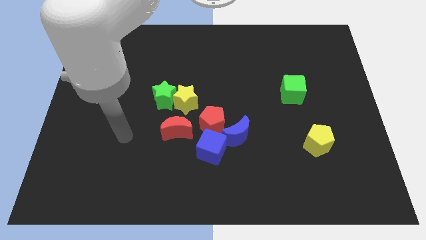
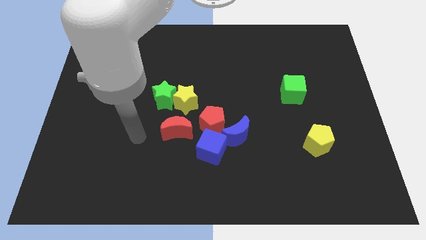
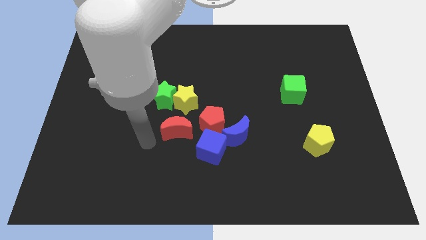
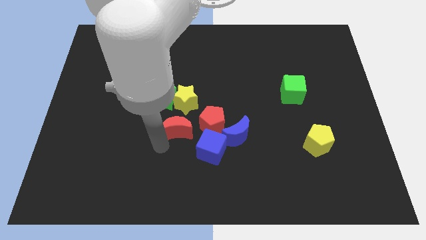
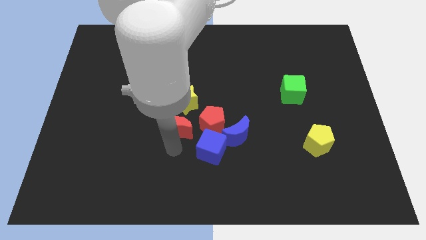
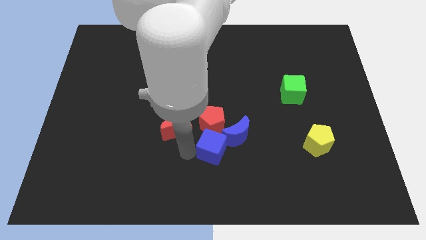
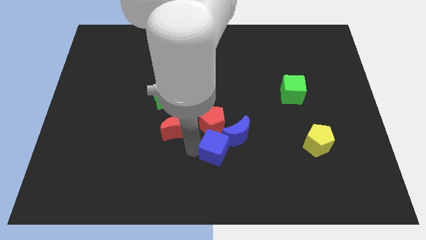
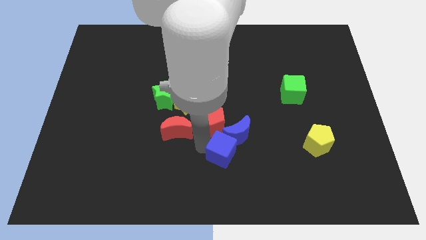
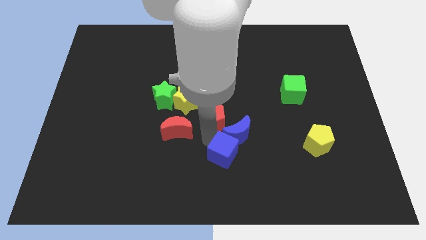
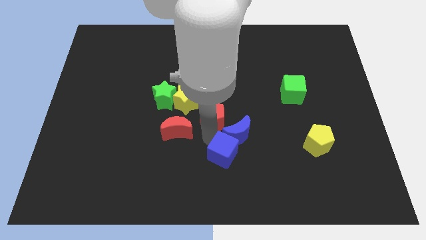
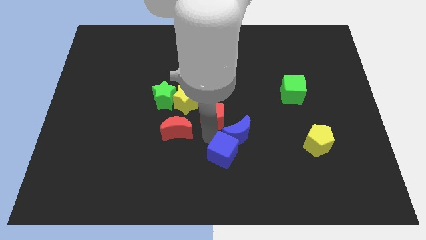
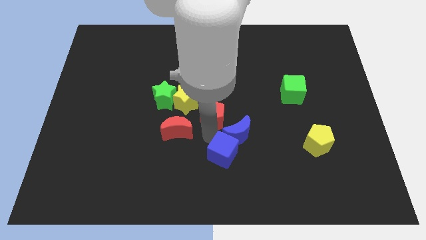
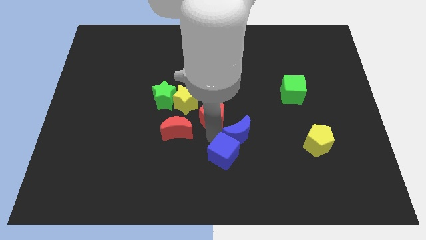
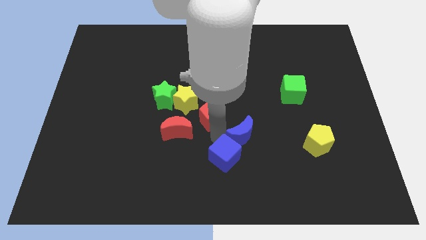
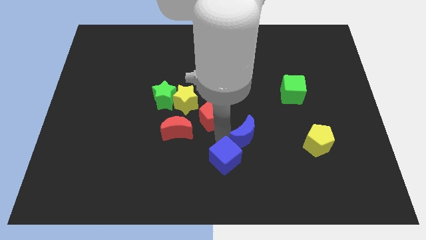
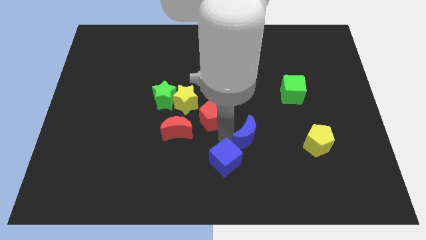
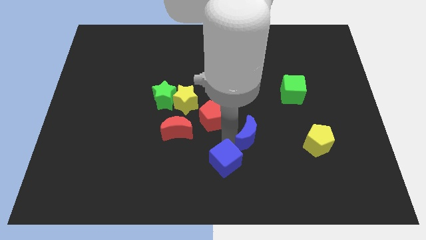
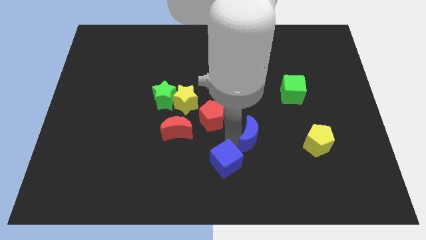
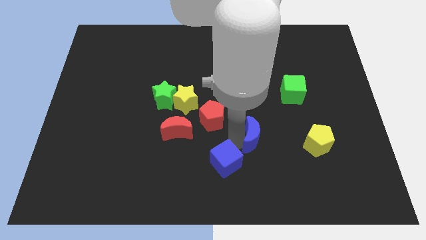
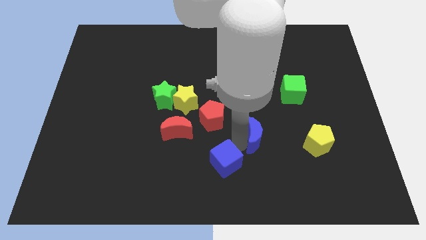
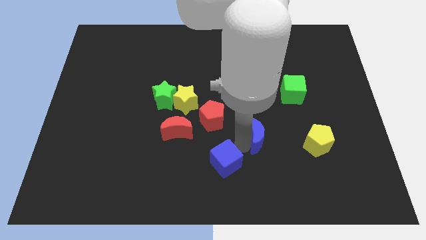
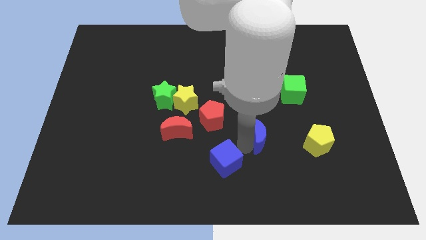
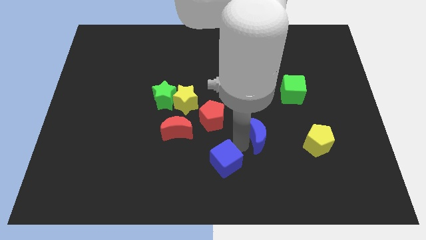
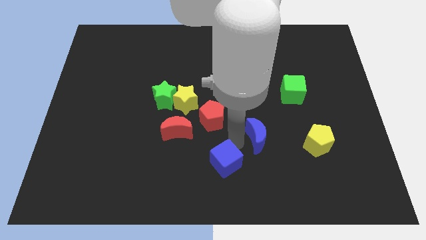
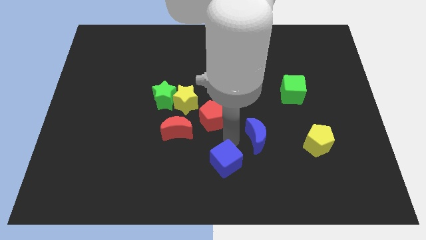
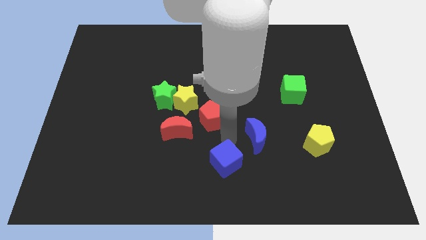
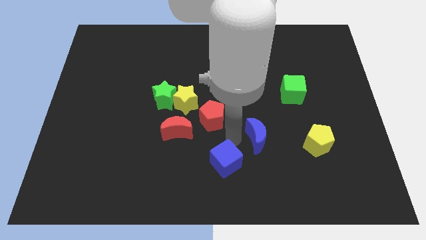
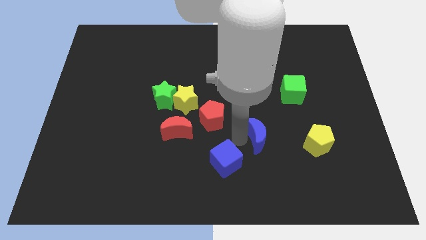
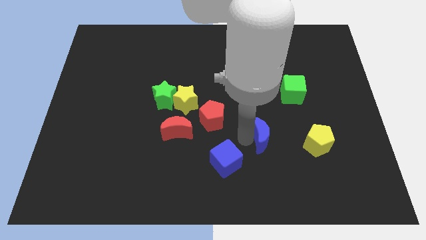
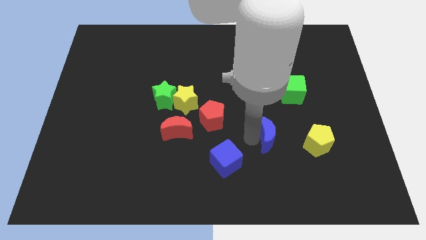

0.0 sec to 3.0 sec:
pull the blue moon apart from the red pentagon and blue cube

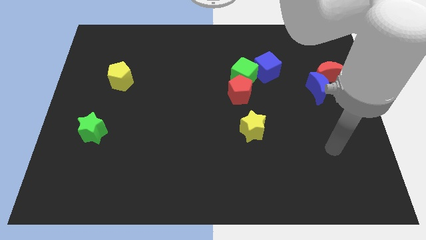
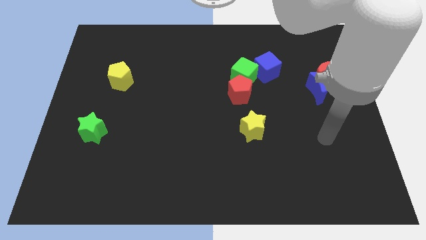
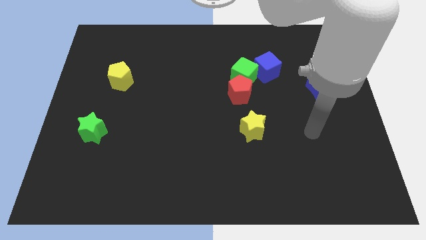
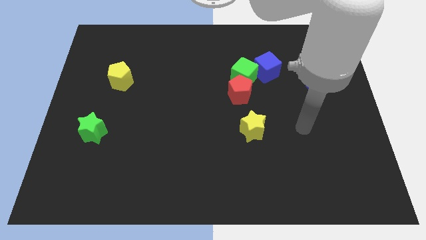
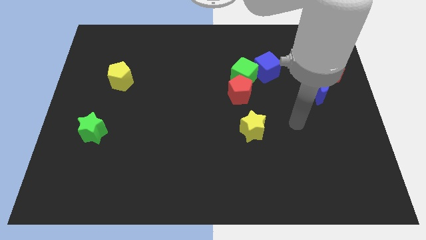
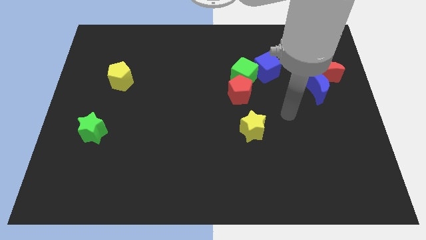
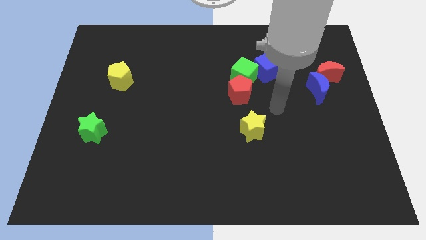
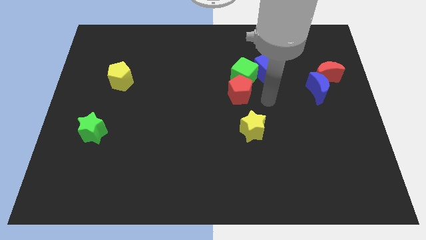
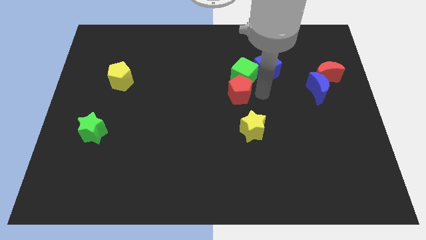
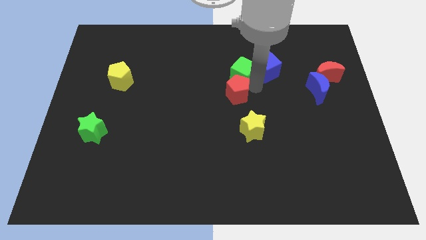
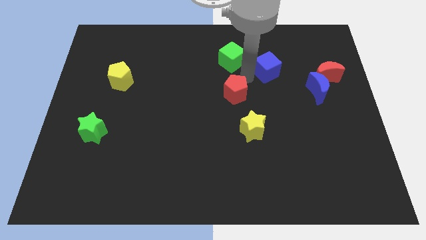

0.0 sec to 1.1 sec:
separate the red pentagon from the green cube

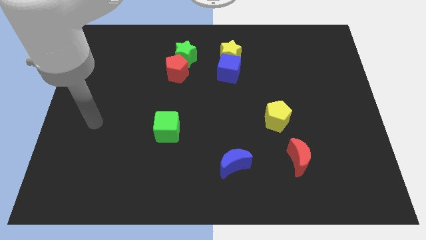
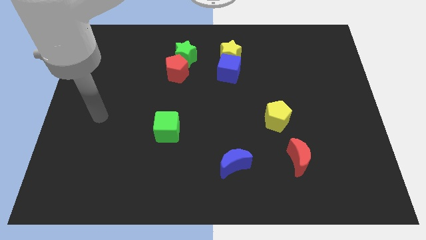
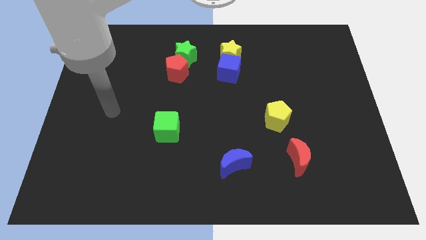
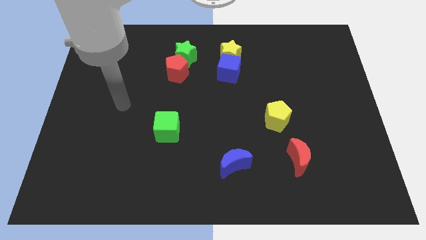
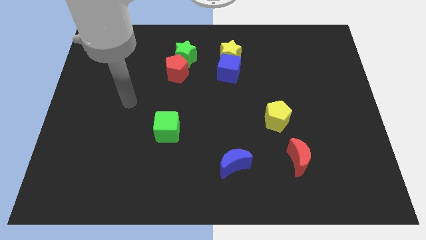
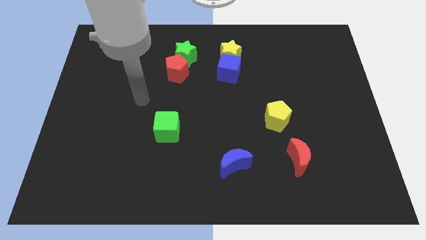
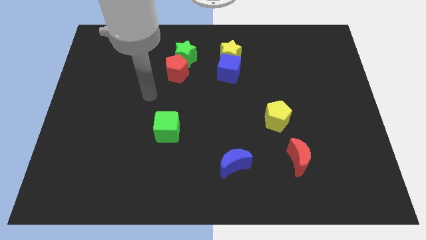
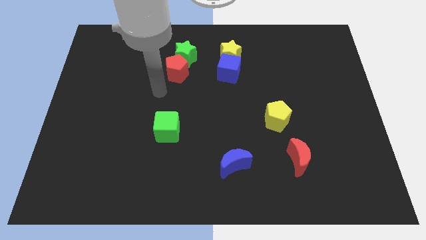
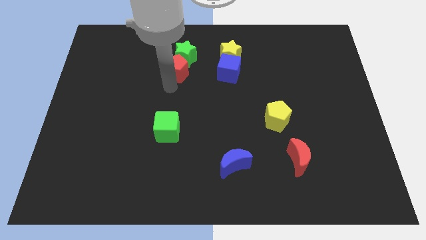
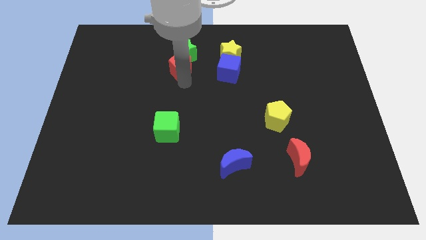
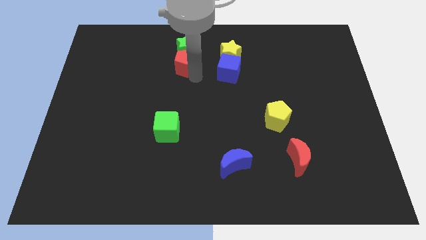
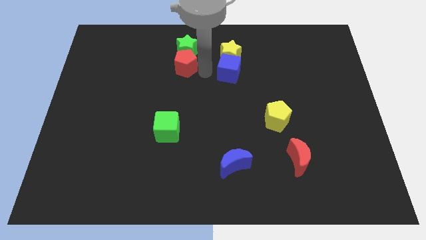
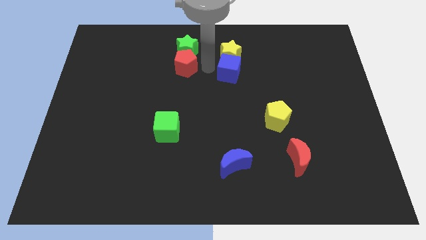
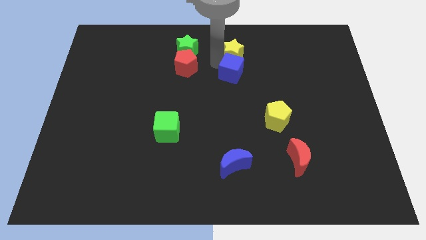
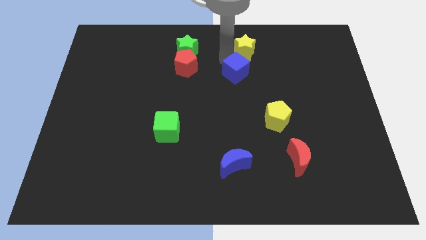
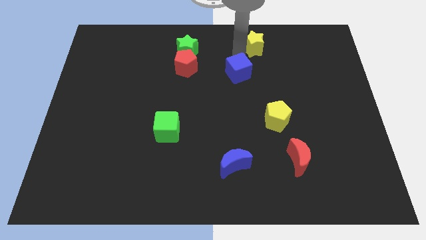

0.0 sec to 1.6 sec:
move the blue cube away from the yellow star

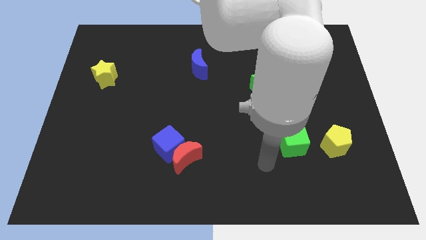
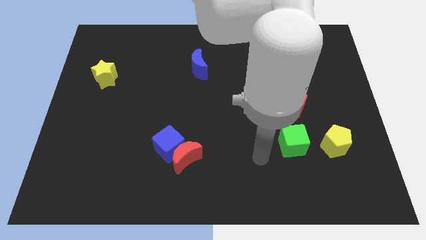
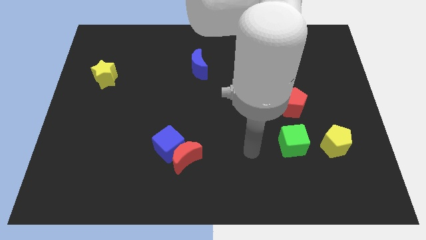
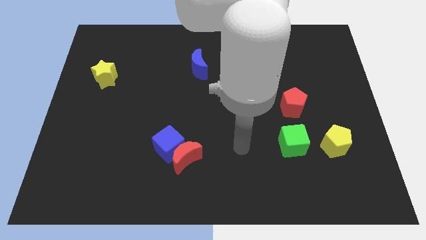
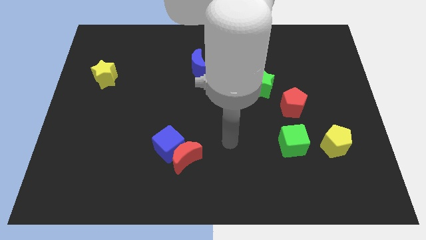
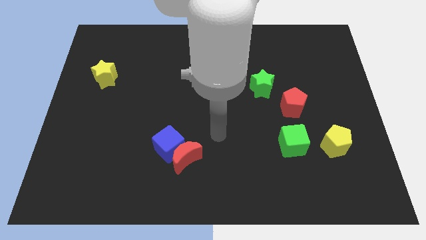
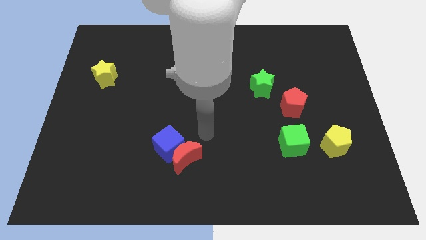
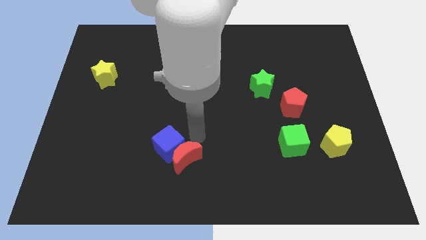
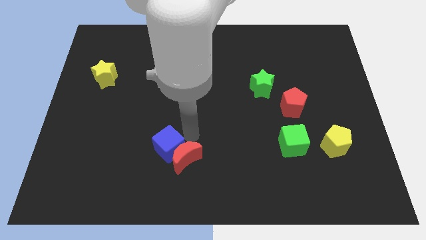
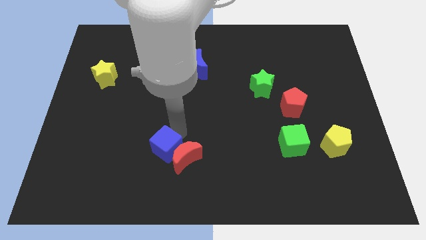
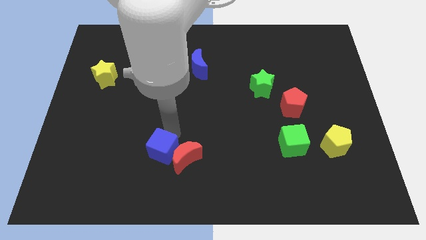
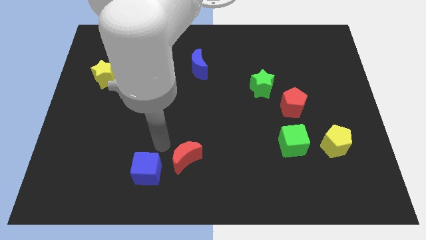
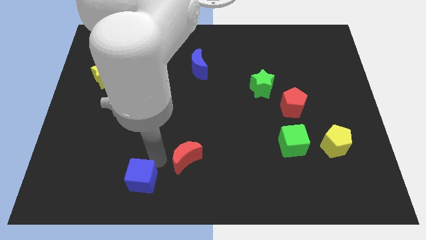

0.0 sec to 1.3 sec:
pull the red moon apart from the blue cube

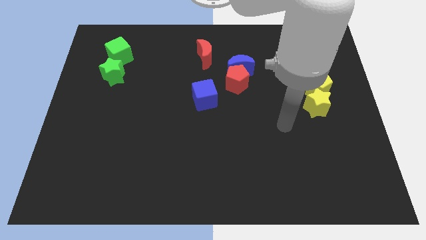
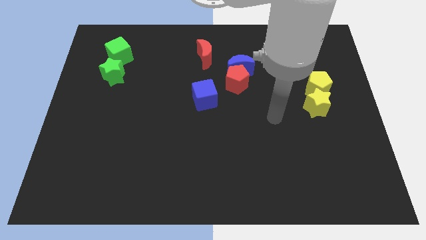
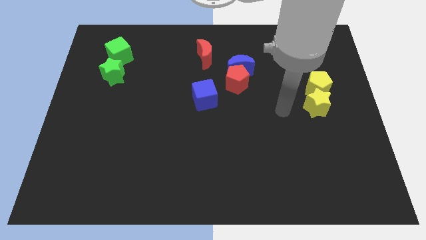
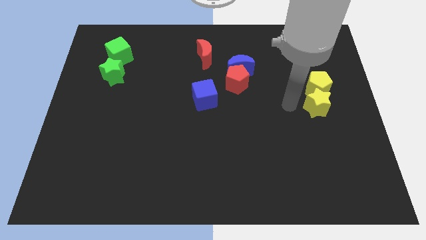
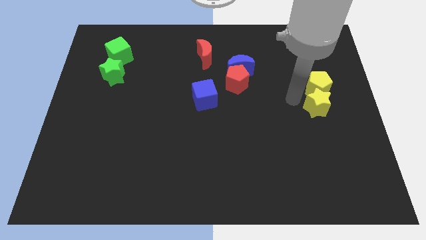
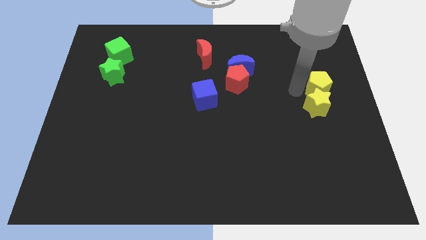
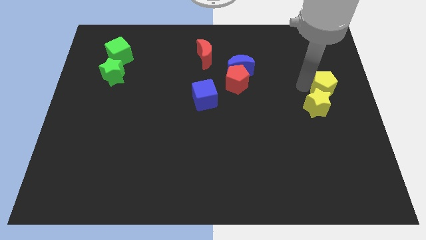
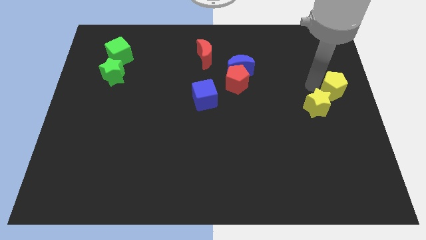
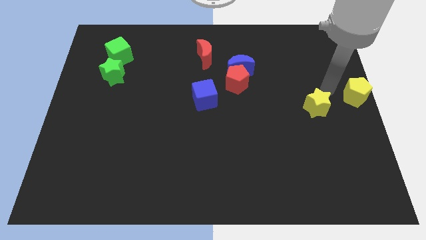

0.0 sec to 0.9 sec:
pull the yellow star apart from the yellow pentagon

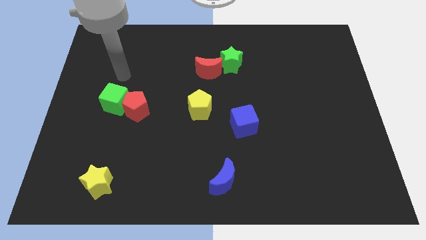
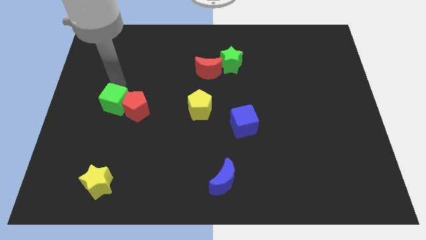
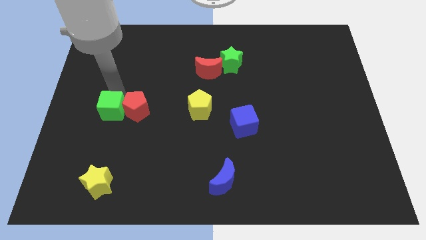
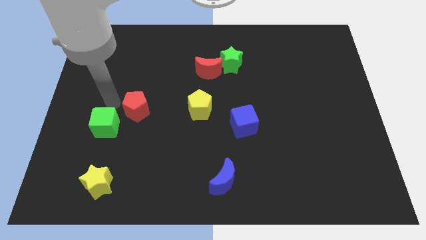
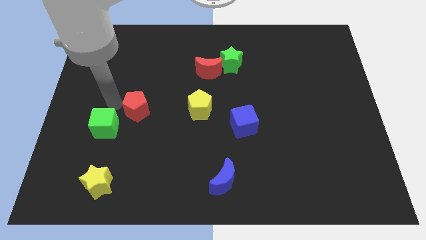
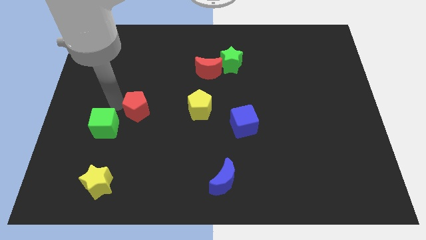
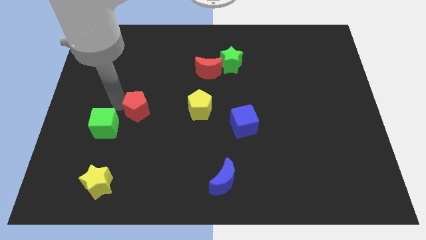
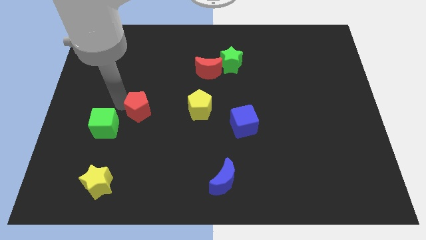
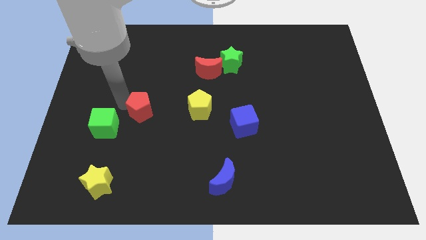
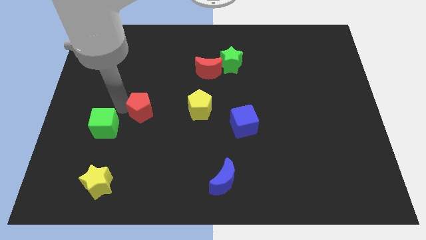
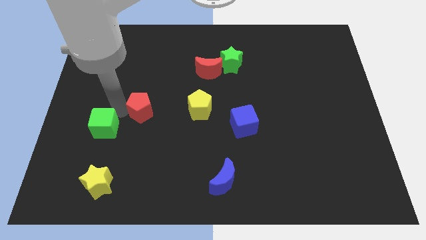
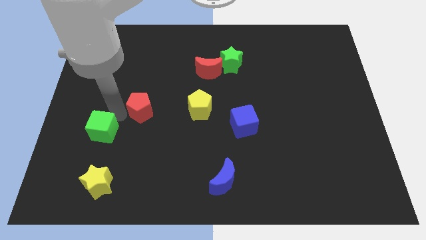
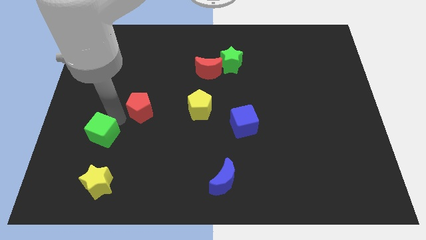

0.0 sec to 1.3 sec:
pull the red pentagon apart from the green cube

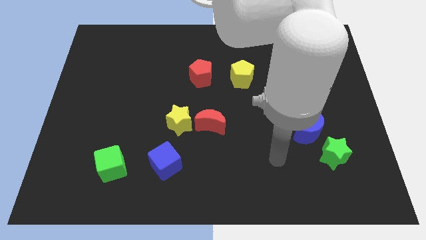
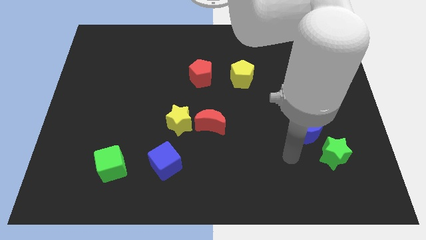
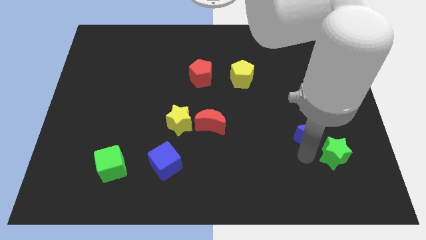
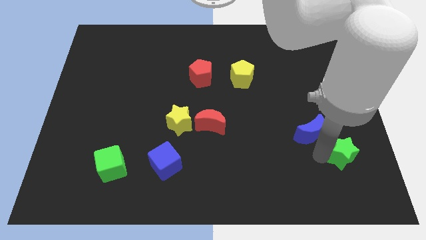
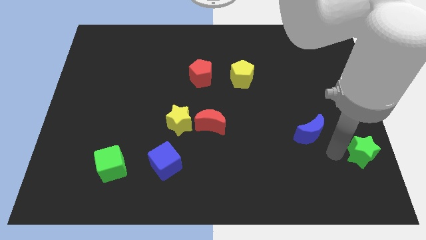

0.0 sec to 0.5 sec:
pull the blue moon apart from the green star
